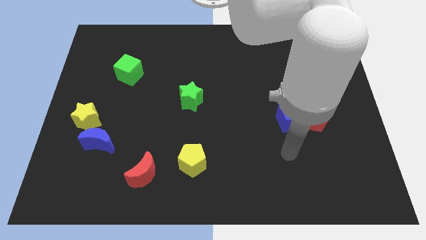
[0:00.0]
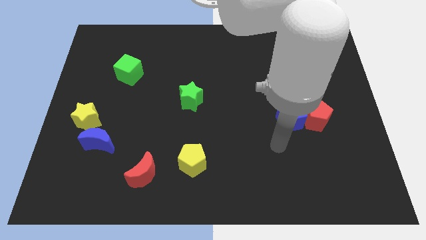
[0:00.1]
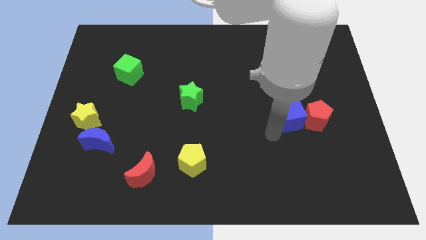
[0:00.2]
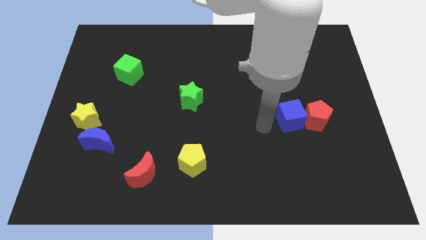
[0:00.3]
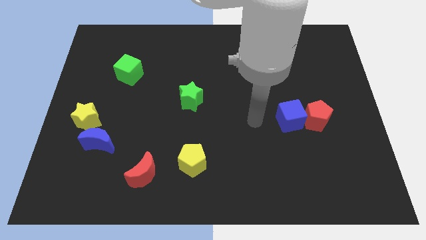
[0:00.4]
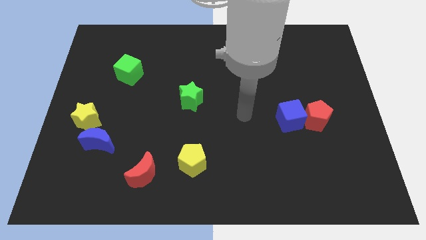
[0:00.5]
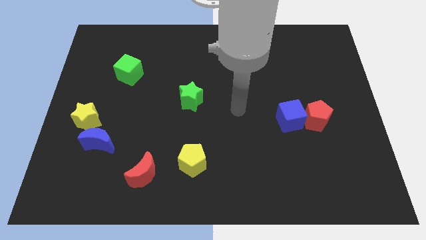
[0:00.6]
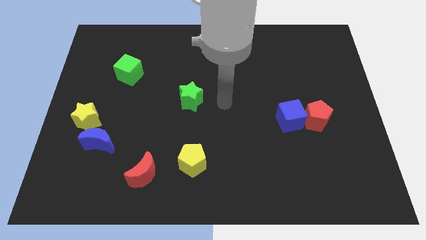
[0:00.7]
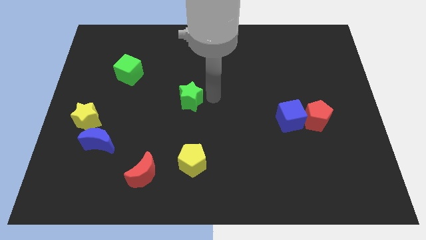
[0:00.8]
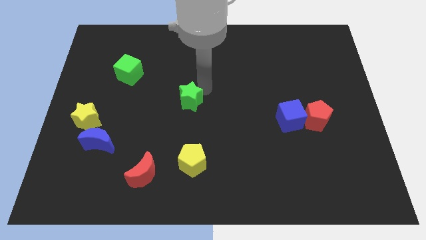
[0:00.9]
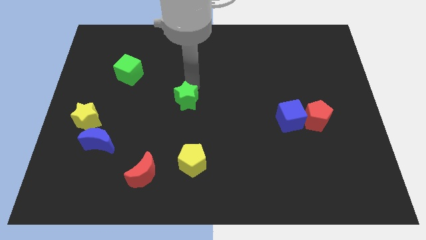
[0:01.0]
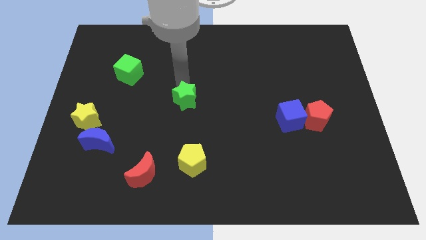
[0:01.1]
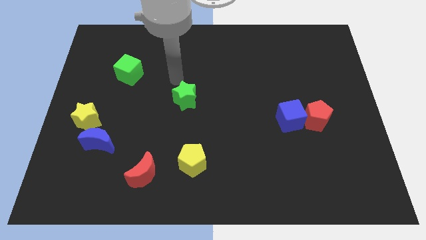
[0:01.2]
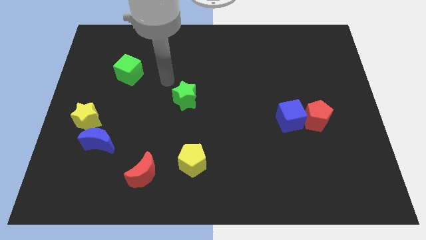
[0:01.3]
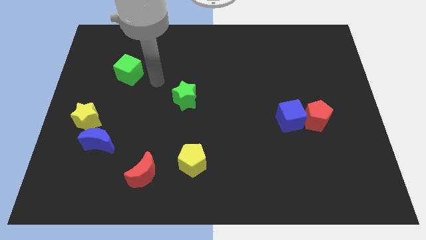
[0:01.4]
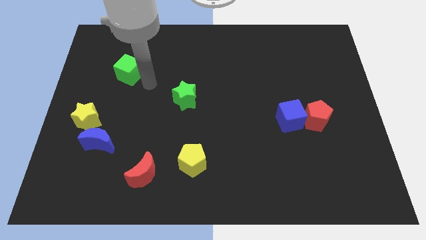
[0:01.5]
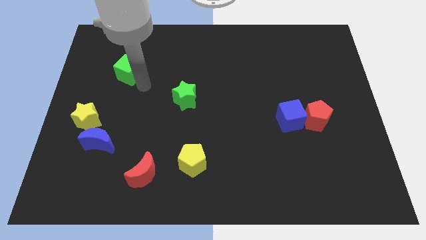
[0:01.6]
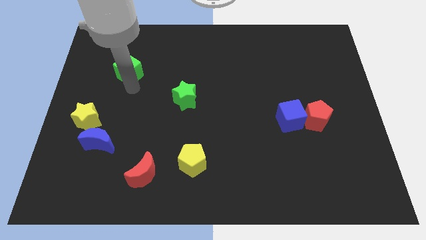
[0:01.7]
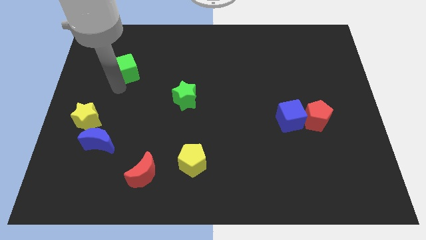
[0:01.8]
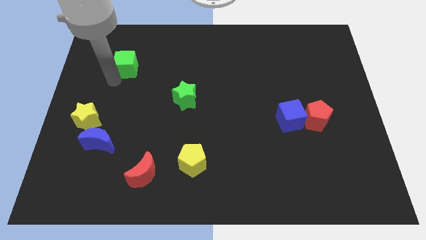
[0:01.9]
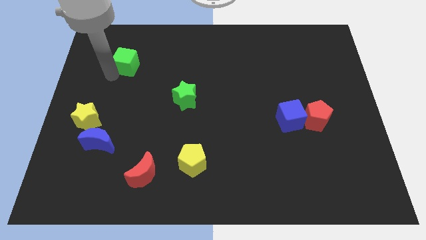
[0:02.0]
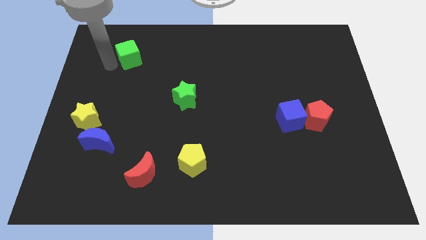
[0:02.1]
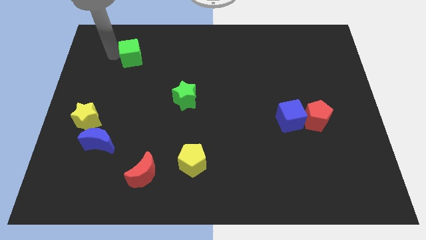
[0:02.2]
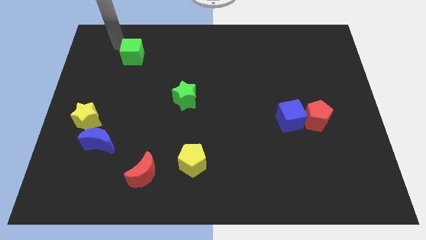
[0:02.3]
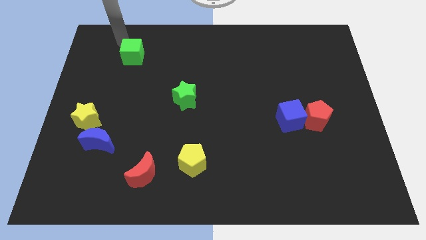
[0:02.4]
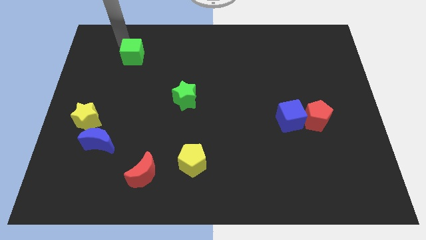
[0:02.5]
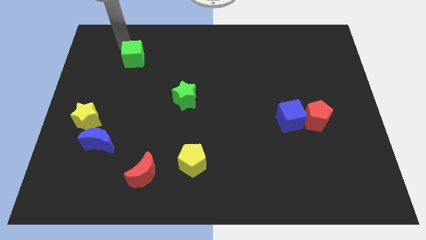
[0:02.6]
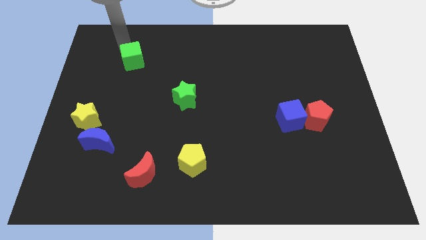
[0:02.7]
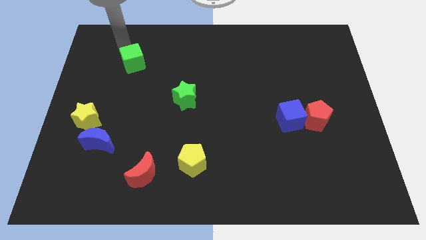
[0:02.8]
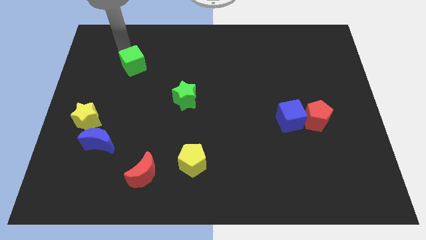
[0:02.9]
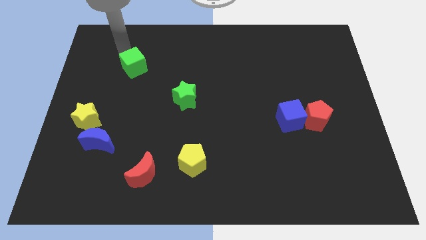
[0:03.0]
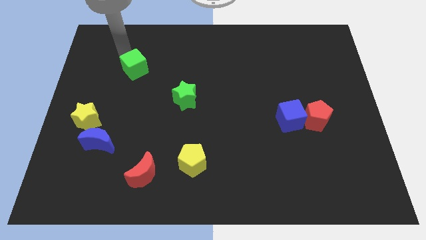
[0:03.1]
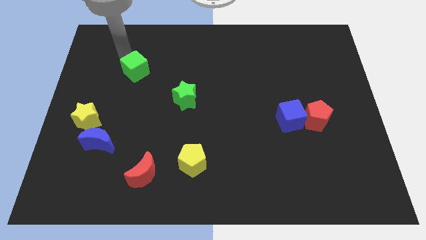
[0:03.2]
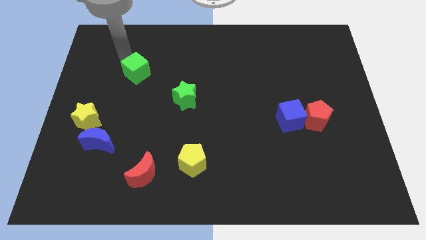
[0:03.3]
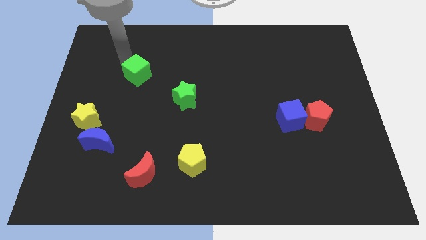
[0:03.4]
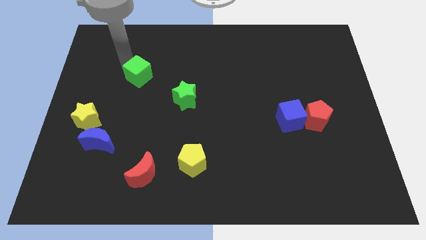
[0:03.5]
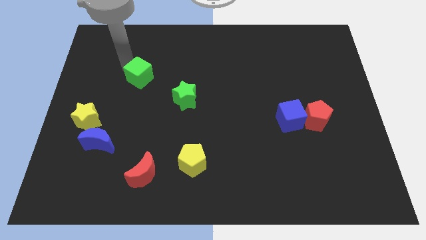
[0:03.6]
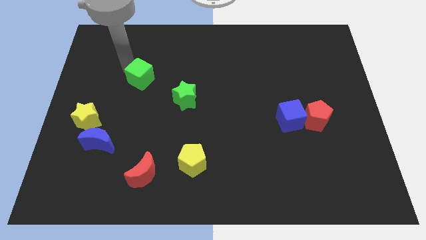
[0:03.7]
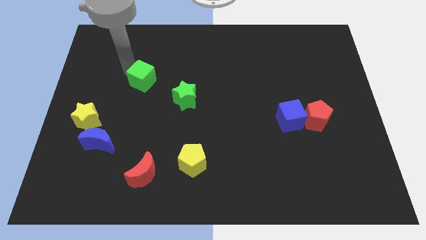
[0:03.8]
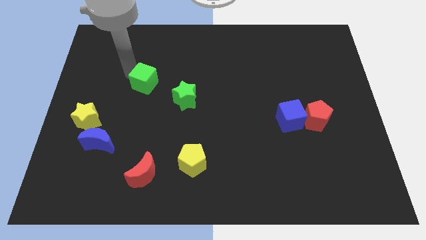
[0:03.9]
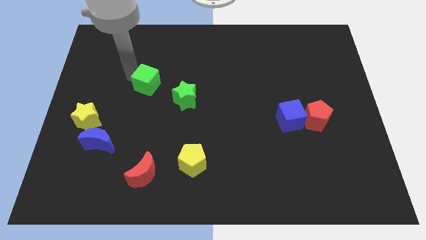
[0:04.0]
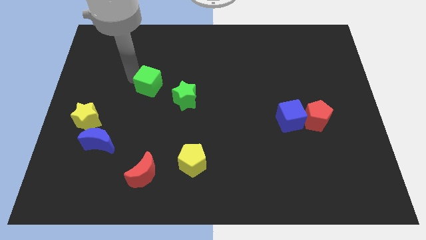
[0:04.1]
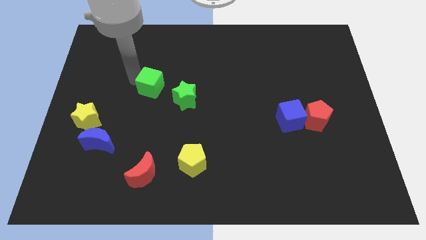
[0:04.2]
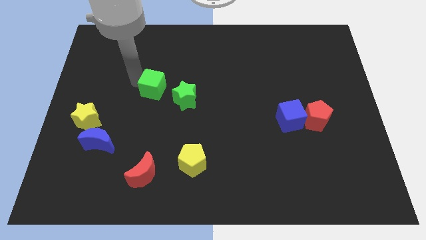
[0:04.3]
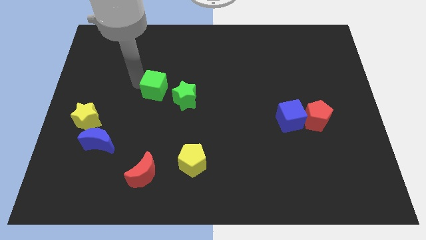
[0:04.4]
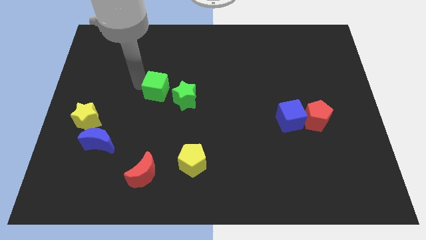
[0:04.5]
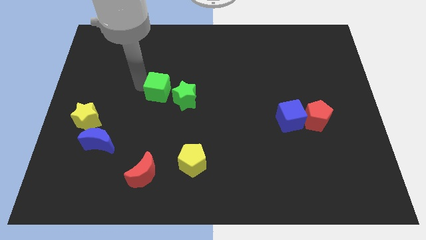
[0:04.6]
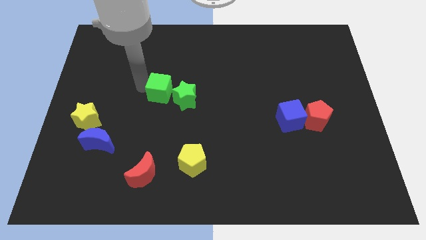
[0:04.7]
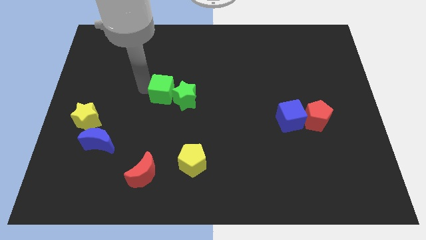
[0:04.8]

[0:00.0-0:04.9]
move the green cube close to the green star

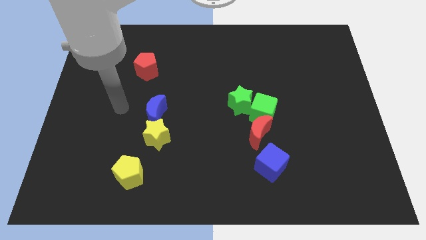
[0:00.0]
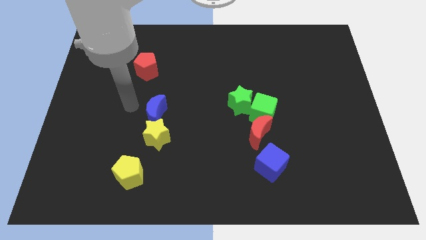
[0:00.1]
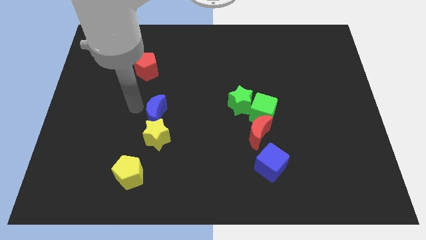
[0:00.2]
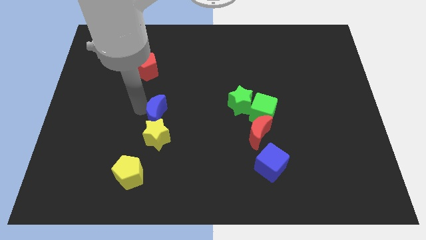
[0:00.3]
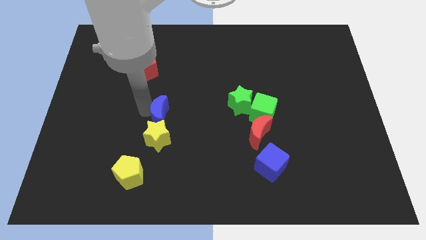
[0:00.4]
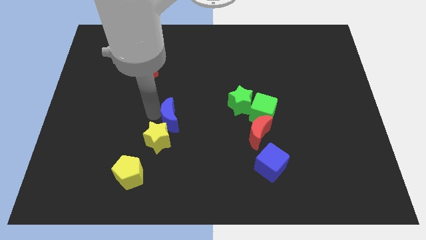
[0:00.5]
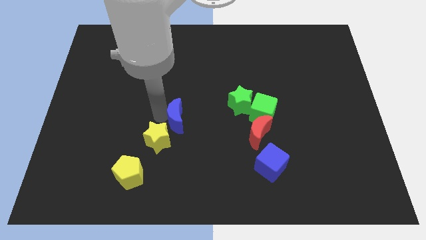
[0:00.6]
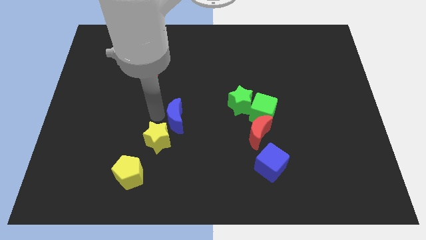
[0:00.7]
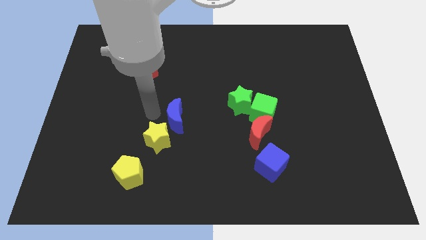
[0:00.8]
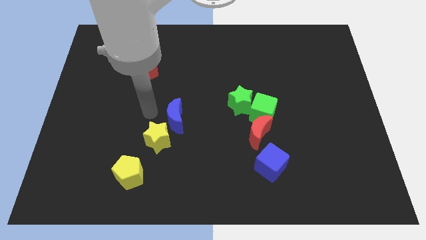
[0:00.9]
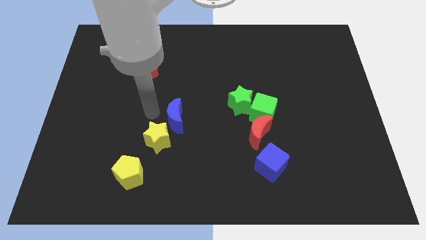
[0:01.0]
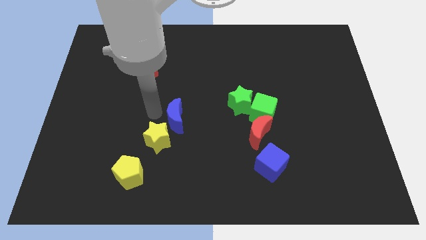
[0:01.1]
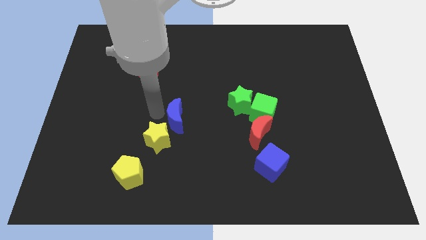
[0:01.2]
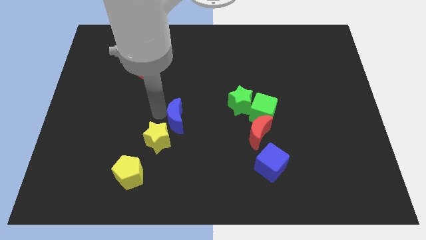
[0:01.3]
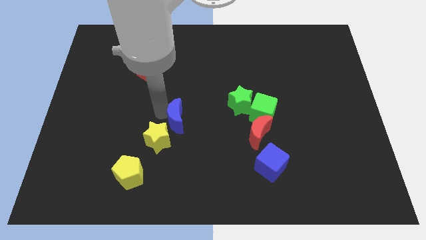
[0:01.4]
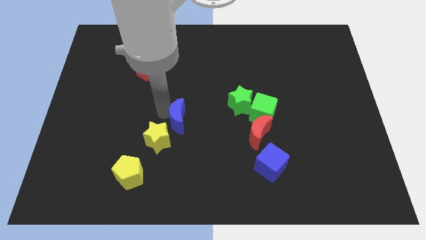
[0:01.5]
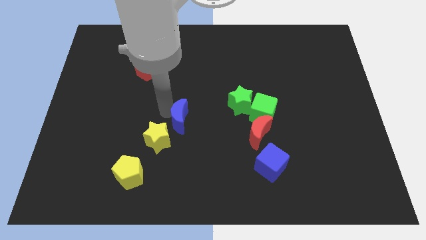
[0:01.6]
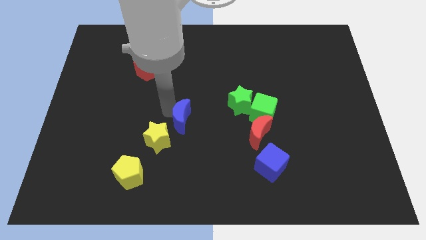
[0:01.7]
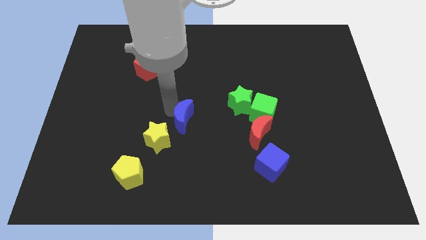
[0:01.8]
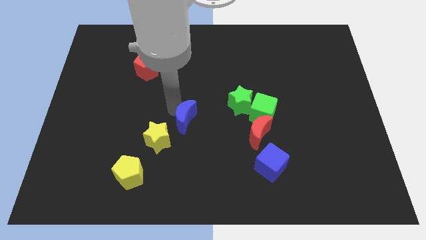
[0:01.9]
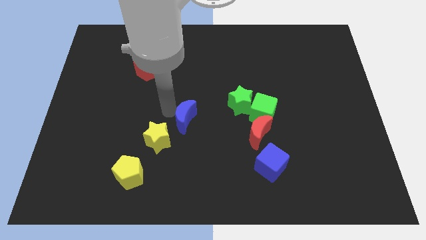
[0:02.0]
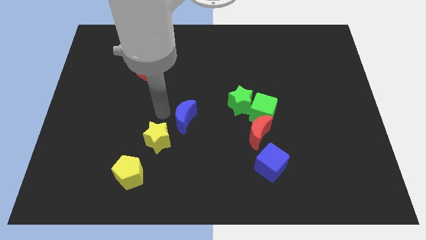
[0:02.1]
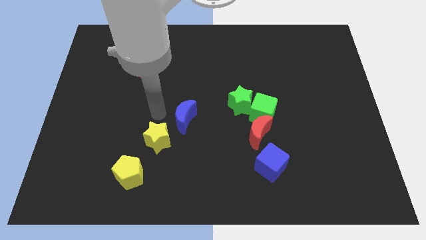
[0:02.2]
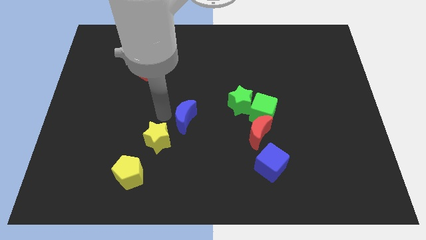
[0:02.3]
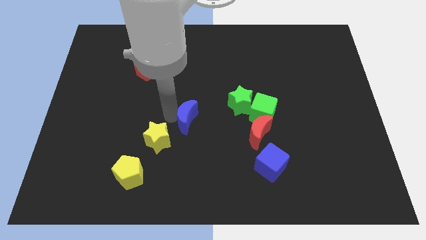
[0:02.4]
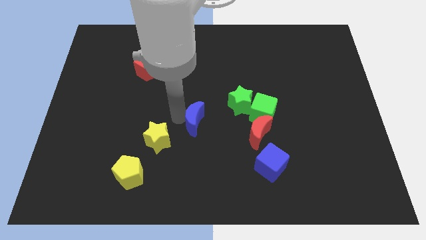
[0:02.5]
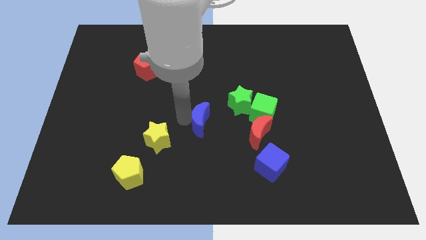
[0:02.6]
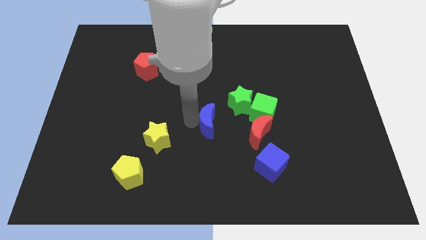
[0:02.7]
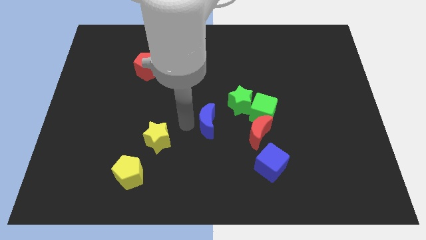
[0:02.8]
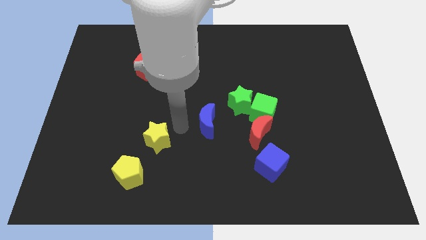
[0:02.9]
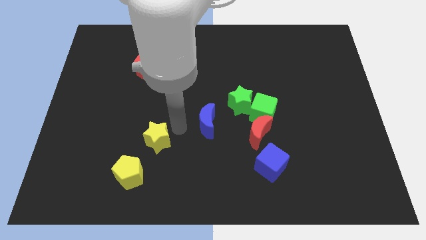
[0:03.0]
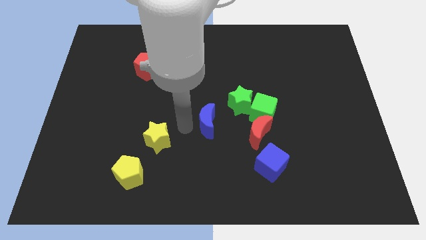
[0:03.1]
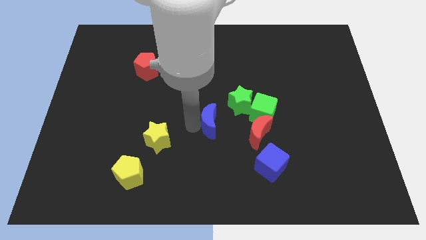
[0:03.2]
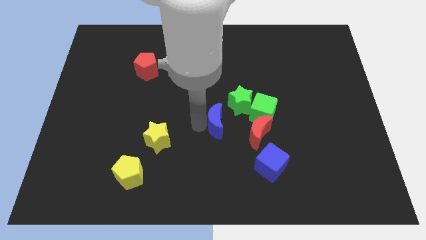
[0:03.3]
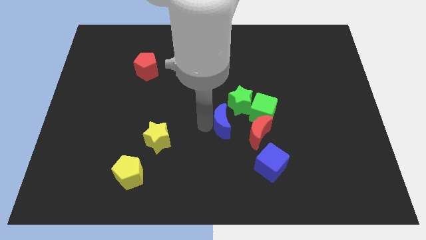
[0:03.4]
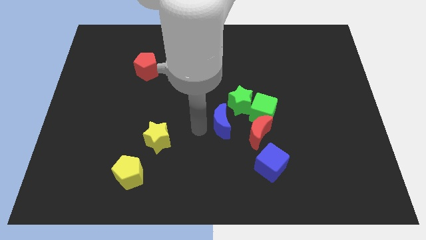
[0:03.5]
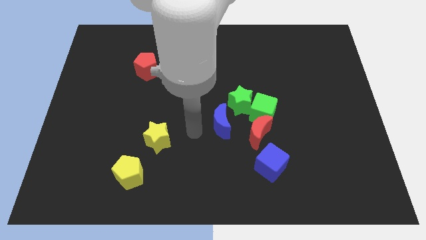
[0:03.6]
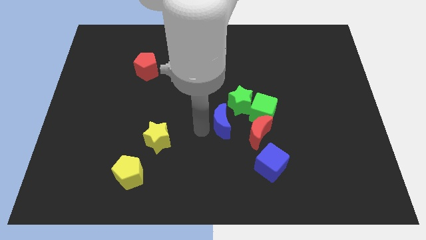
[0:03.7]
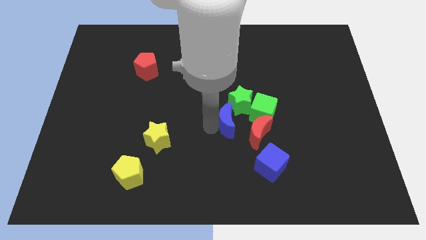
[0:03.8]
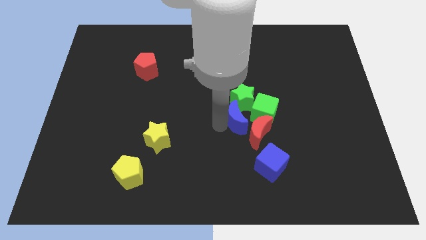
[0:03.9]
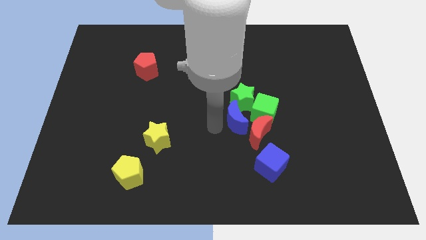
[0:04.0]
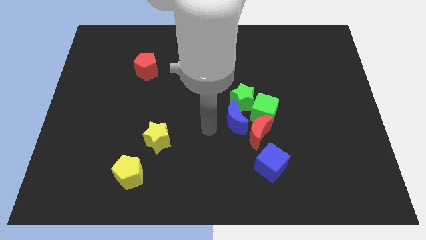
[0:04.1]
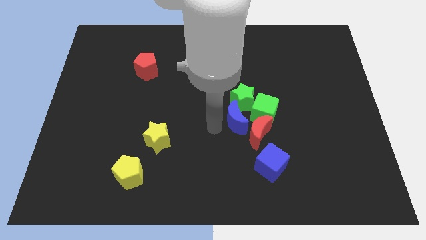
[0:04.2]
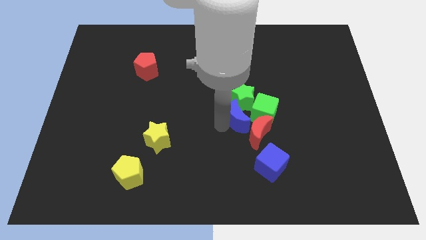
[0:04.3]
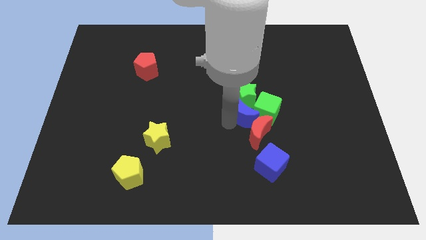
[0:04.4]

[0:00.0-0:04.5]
slide the blue moon to the green cube
